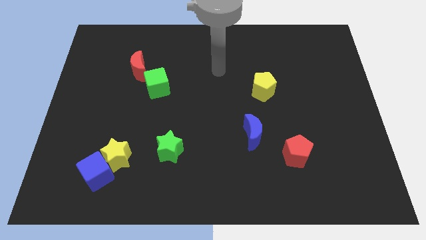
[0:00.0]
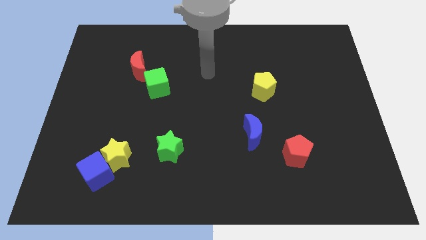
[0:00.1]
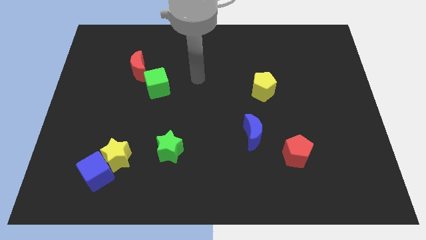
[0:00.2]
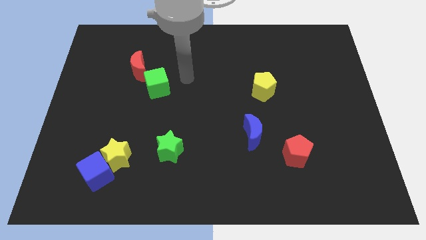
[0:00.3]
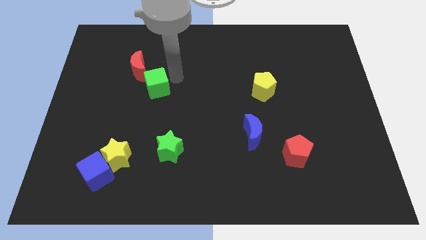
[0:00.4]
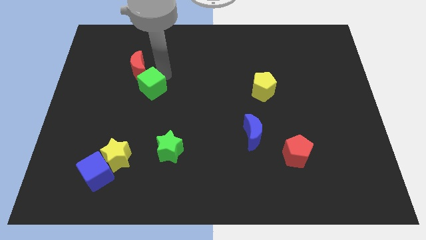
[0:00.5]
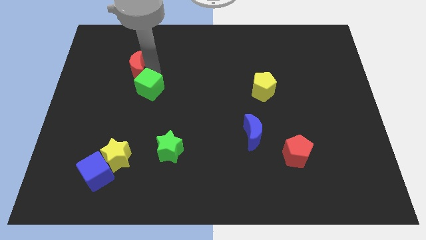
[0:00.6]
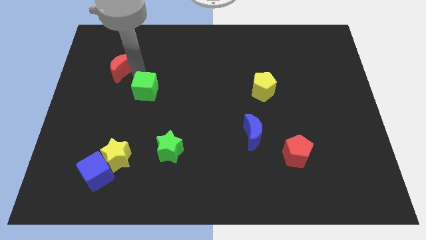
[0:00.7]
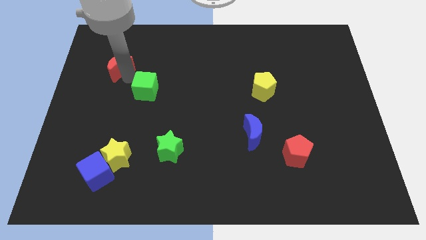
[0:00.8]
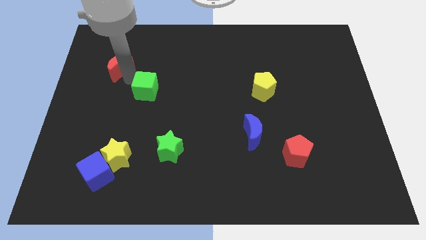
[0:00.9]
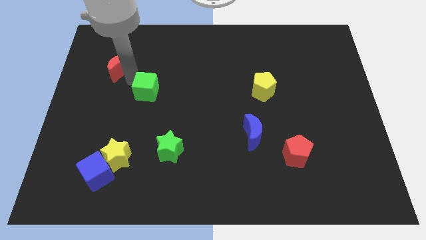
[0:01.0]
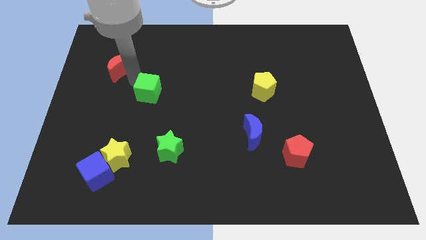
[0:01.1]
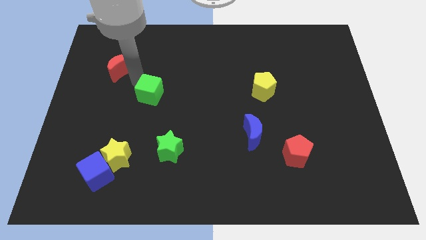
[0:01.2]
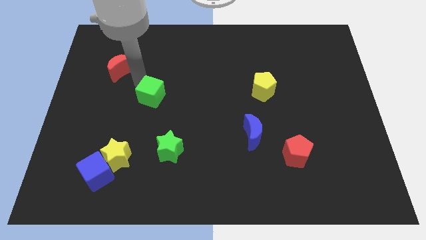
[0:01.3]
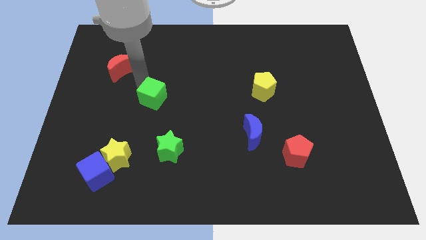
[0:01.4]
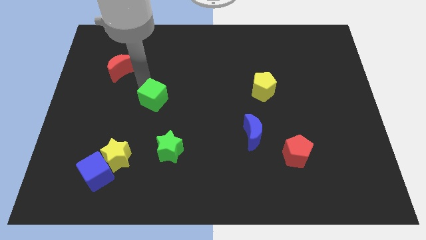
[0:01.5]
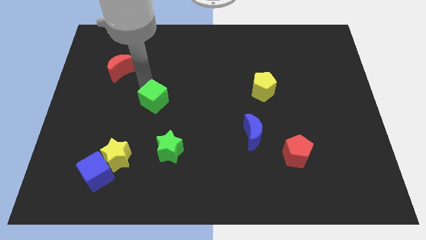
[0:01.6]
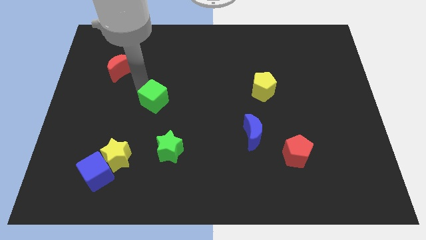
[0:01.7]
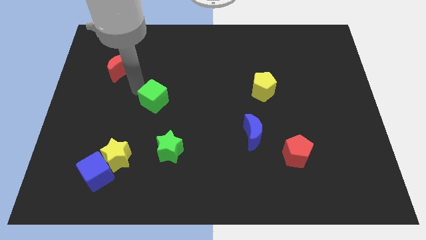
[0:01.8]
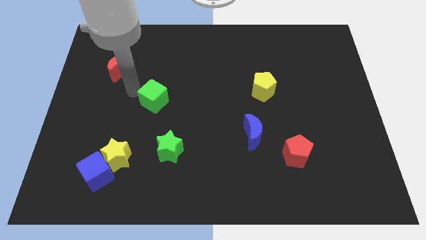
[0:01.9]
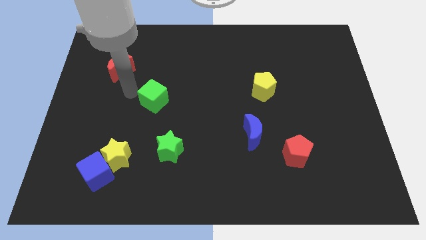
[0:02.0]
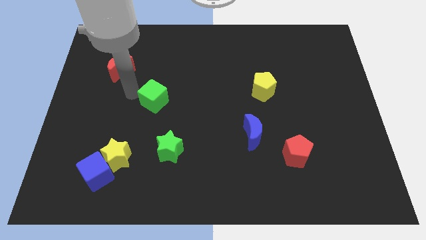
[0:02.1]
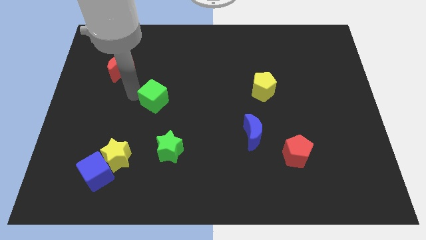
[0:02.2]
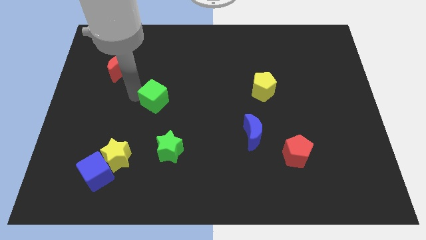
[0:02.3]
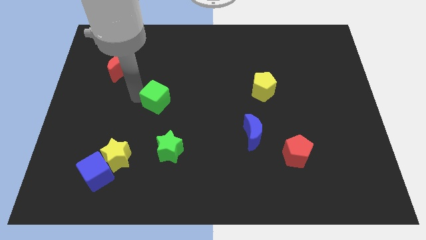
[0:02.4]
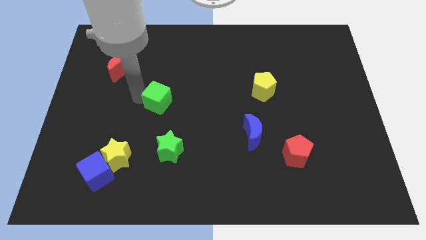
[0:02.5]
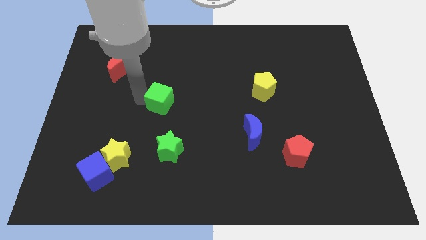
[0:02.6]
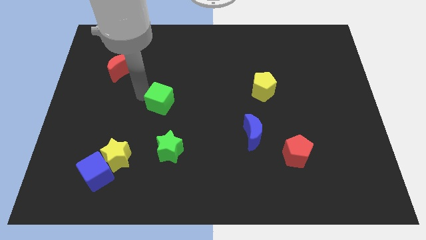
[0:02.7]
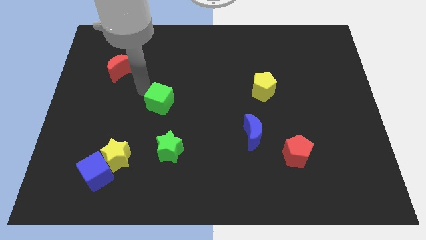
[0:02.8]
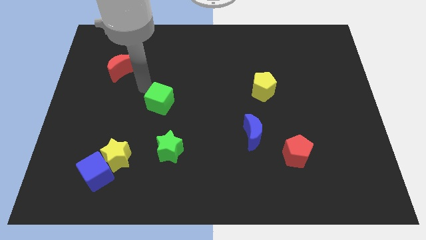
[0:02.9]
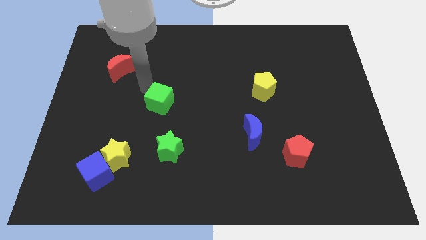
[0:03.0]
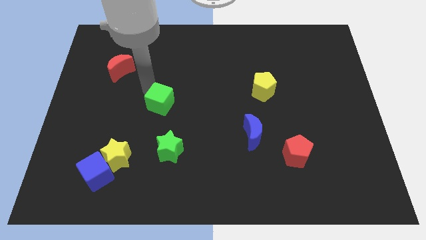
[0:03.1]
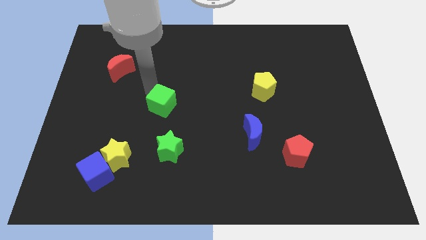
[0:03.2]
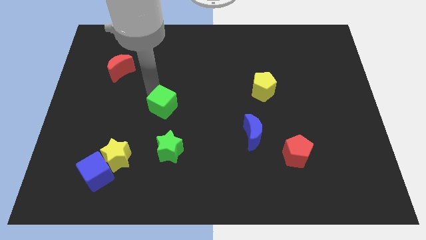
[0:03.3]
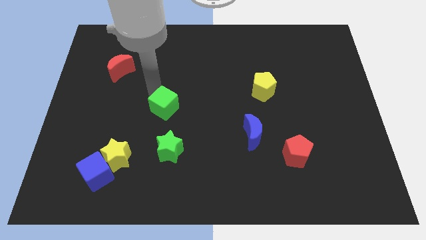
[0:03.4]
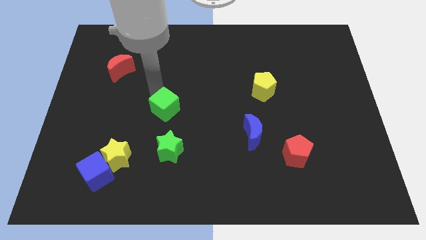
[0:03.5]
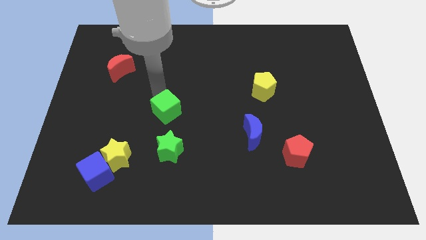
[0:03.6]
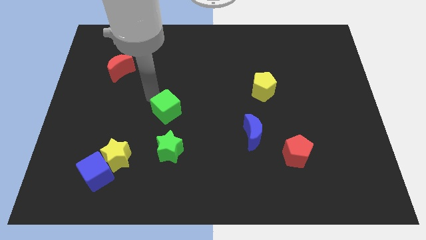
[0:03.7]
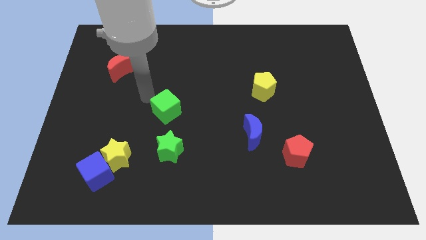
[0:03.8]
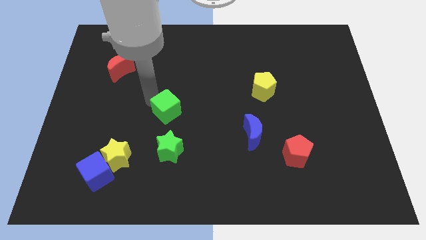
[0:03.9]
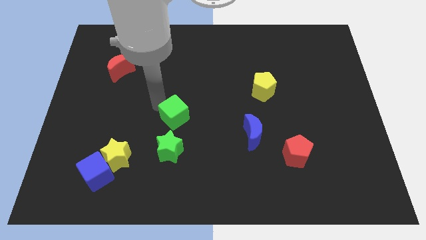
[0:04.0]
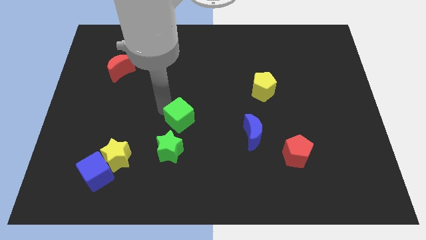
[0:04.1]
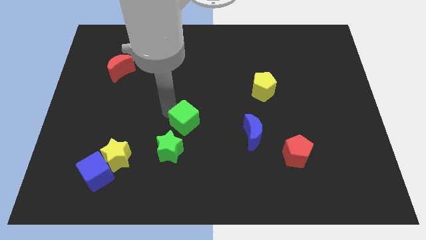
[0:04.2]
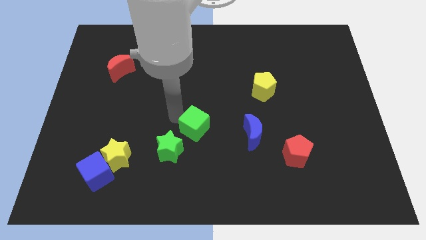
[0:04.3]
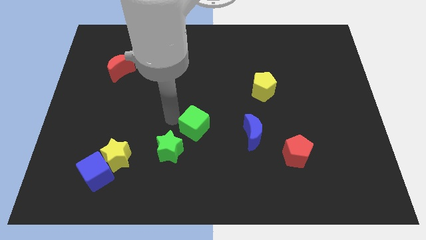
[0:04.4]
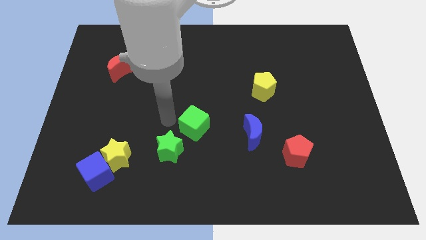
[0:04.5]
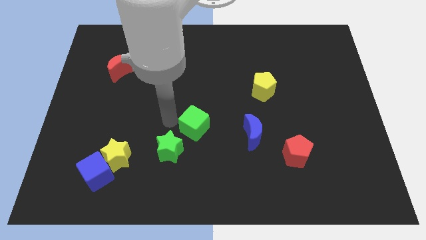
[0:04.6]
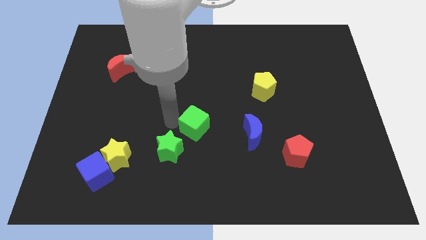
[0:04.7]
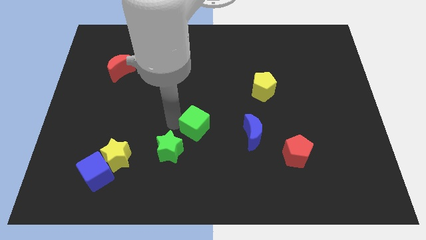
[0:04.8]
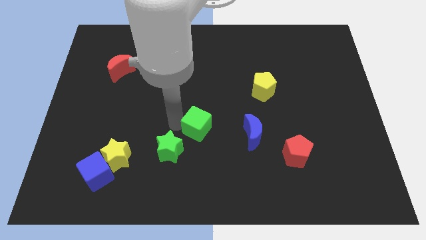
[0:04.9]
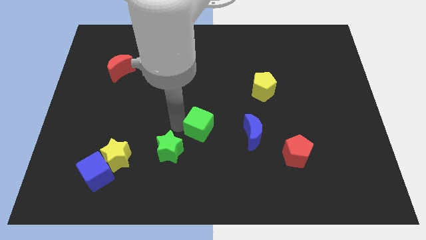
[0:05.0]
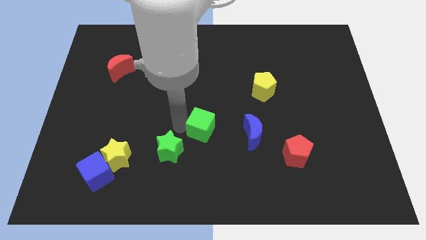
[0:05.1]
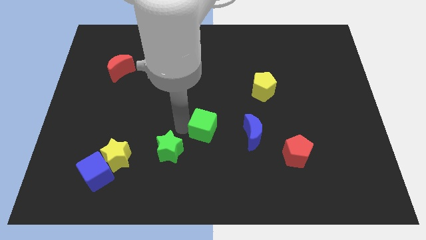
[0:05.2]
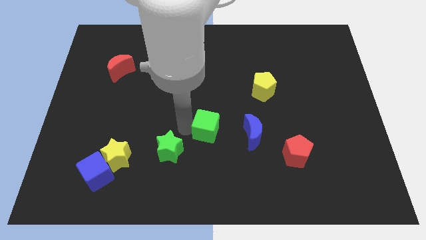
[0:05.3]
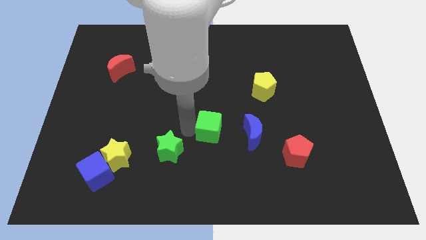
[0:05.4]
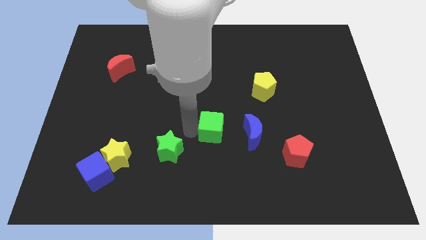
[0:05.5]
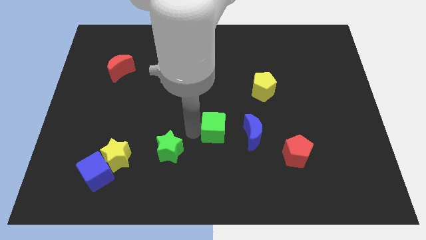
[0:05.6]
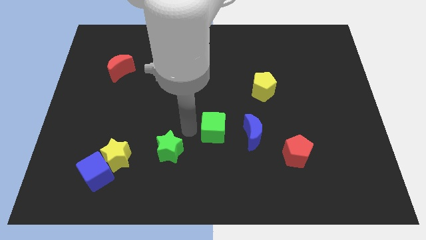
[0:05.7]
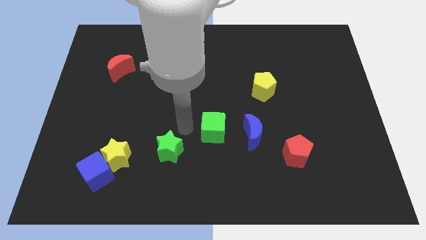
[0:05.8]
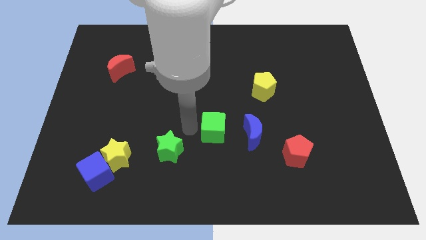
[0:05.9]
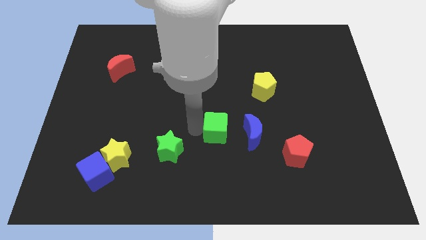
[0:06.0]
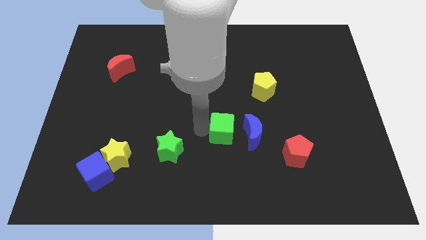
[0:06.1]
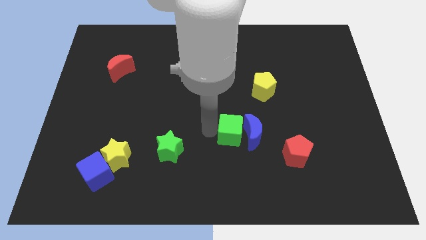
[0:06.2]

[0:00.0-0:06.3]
put the green cube towards the blue moon

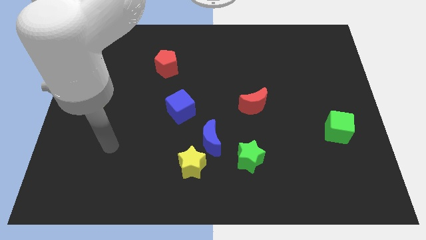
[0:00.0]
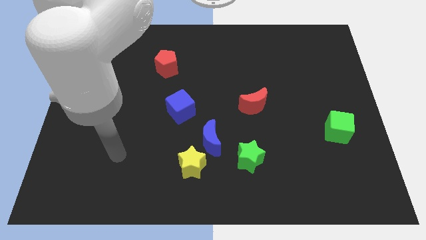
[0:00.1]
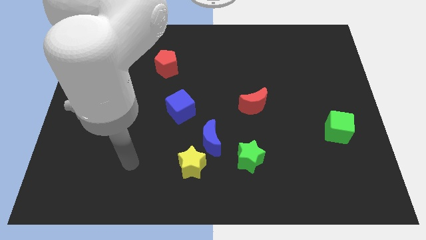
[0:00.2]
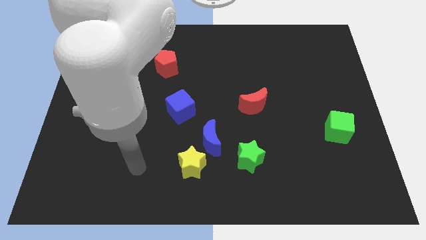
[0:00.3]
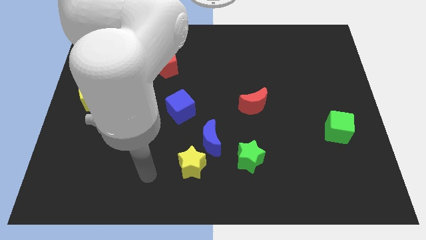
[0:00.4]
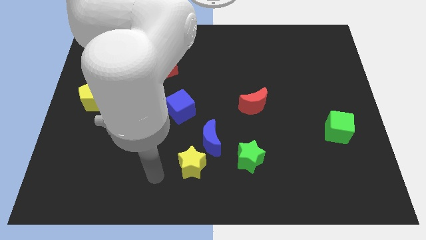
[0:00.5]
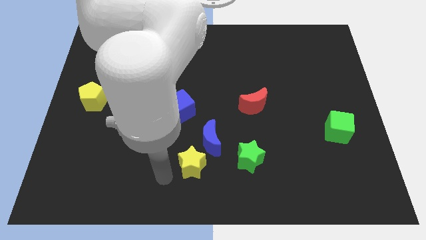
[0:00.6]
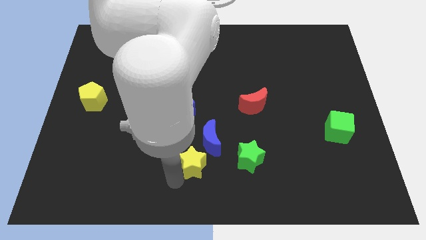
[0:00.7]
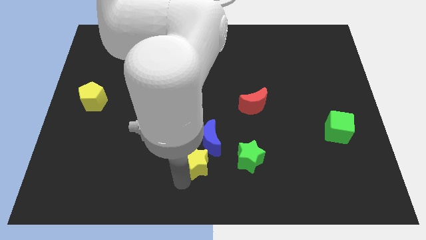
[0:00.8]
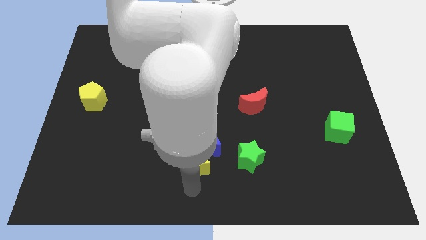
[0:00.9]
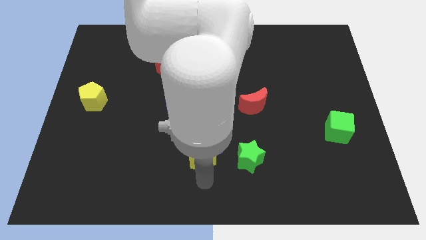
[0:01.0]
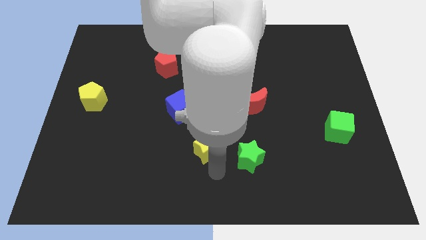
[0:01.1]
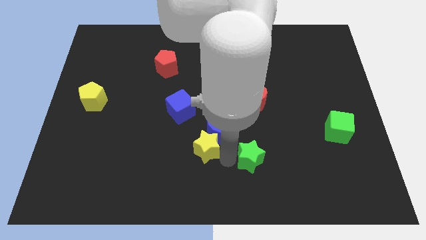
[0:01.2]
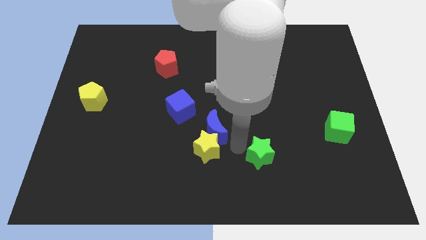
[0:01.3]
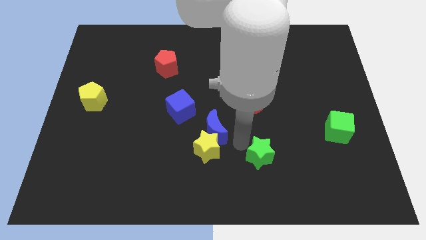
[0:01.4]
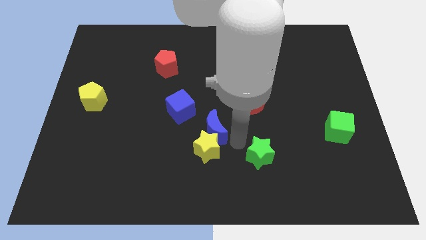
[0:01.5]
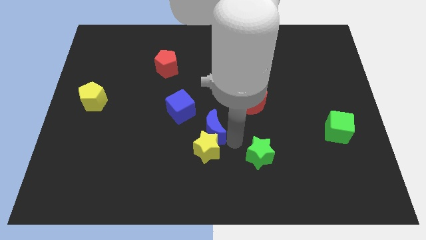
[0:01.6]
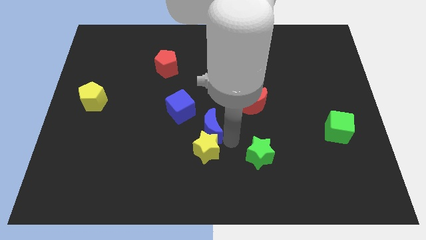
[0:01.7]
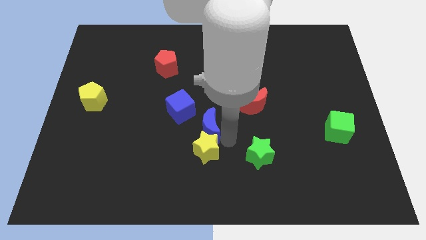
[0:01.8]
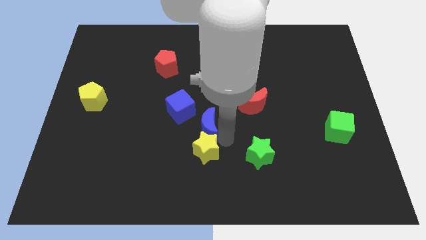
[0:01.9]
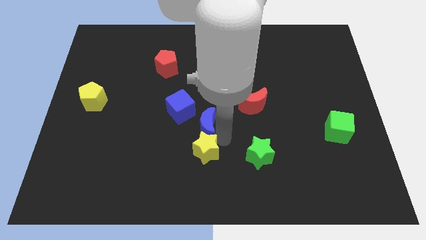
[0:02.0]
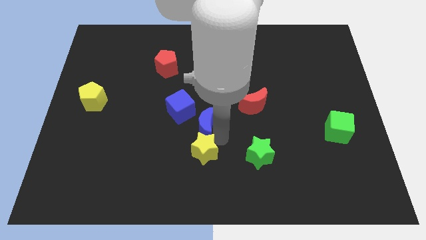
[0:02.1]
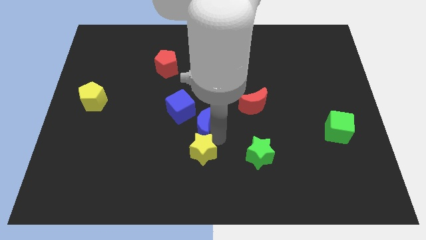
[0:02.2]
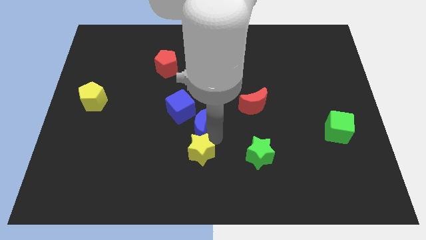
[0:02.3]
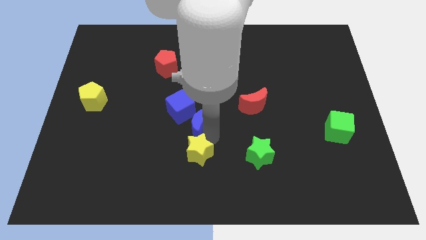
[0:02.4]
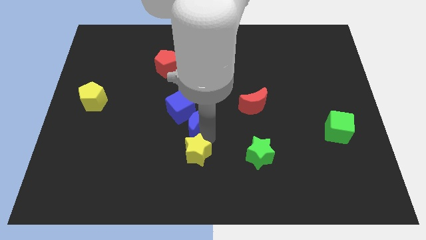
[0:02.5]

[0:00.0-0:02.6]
move the blue moon next to the blue cube
